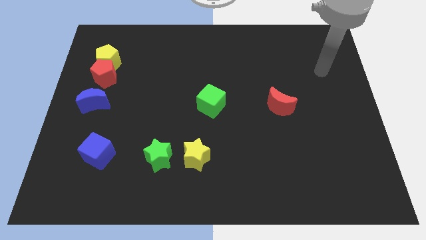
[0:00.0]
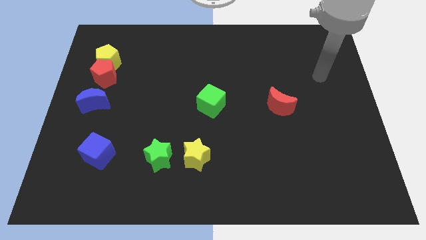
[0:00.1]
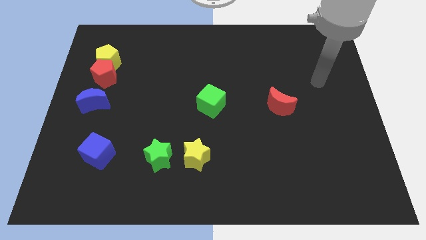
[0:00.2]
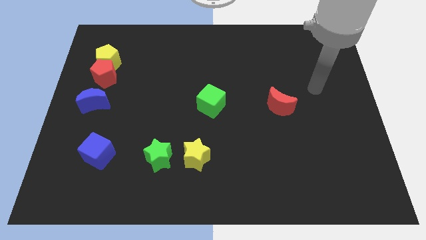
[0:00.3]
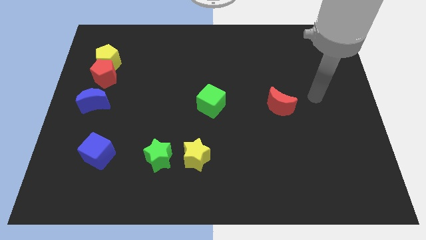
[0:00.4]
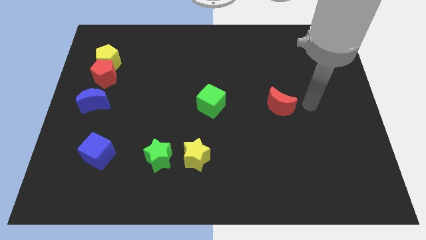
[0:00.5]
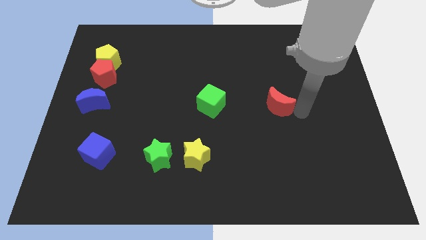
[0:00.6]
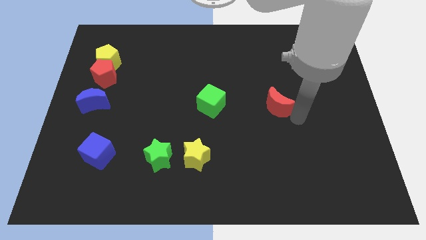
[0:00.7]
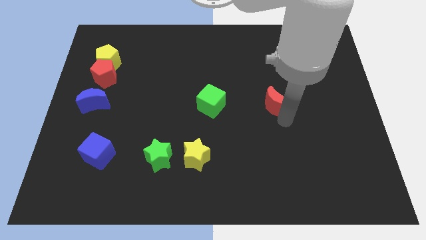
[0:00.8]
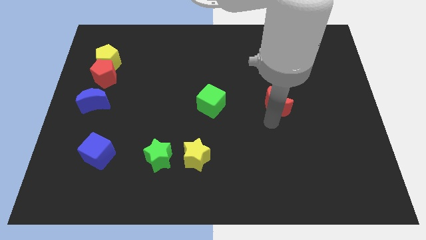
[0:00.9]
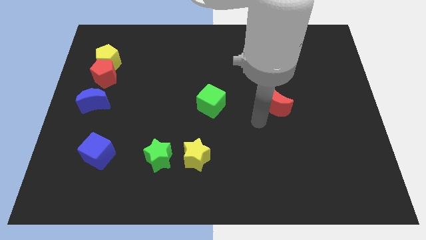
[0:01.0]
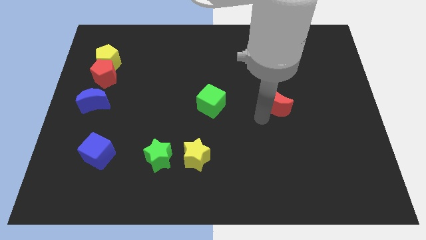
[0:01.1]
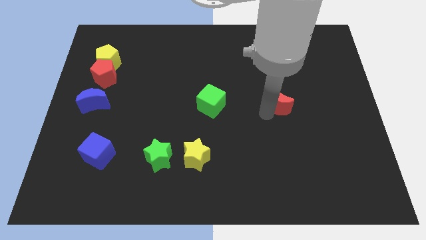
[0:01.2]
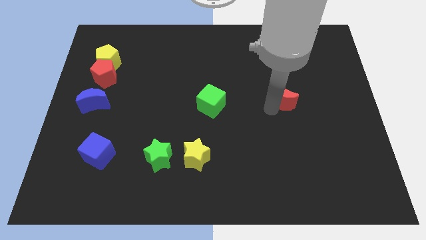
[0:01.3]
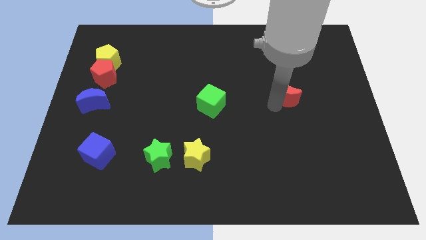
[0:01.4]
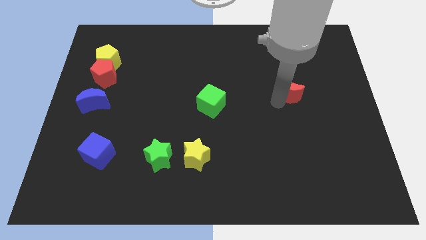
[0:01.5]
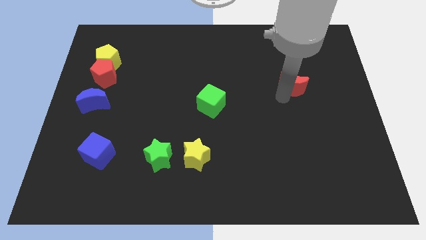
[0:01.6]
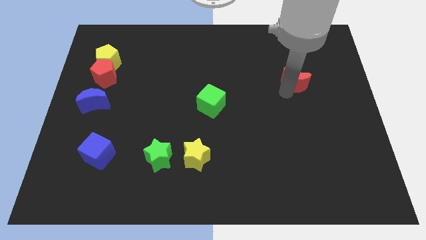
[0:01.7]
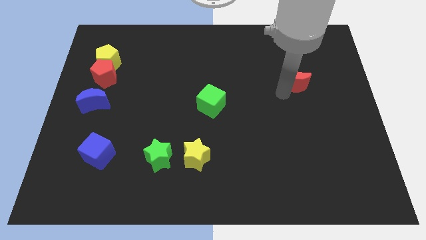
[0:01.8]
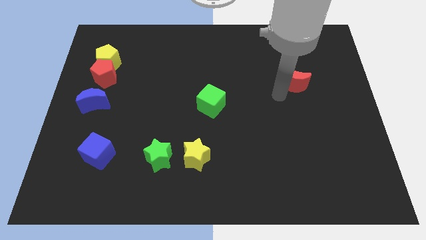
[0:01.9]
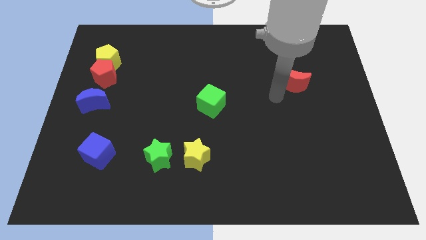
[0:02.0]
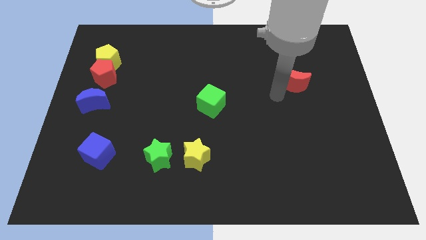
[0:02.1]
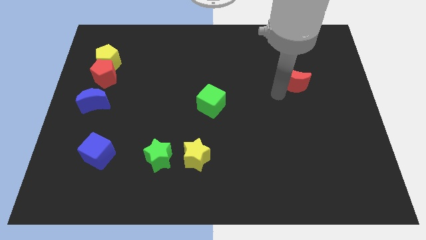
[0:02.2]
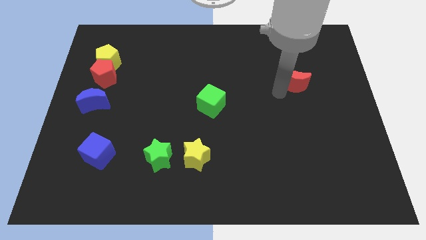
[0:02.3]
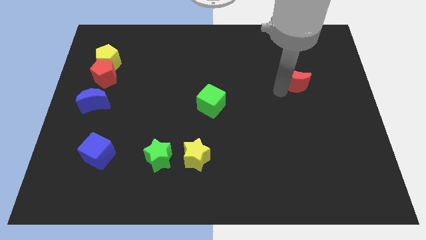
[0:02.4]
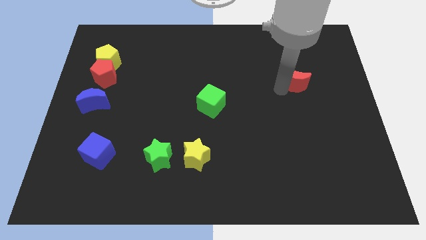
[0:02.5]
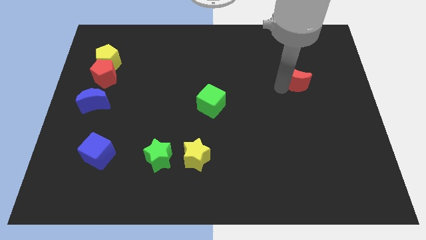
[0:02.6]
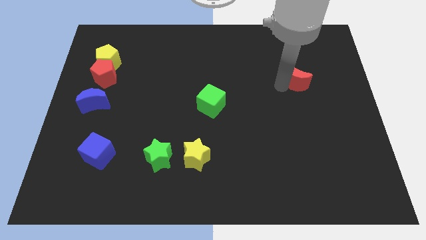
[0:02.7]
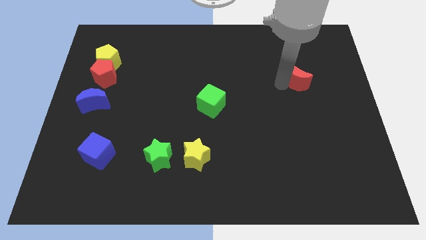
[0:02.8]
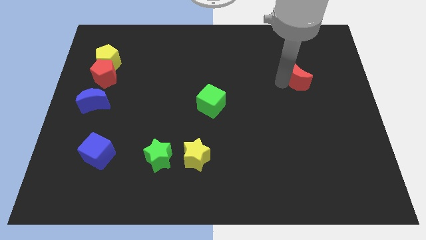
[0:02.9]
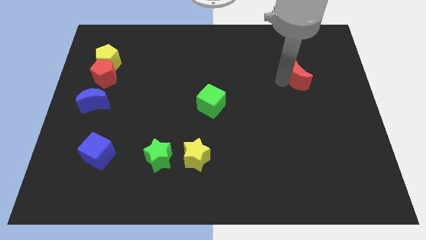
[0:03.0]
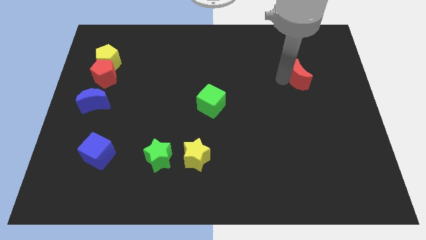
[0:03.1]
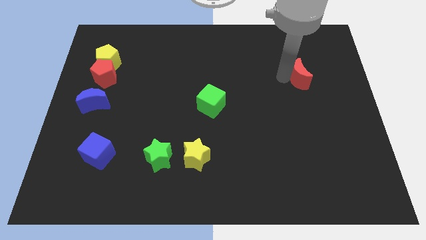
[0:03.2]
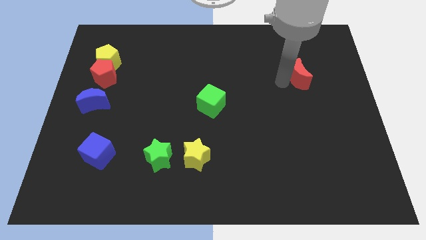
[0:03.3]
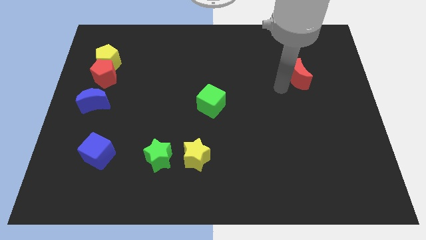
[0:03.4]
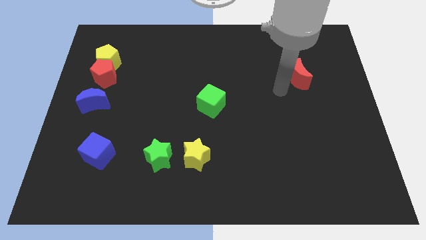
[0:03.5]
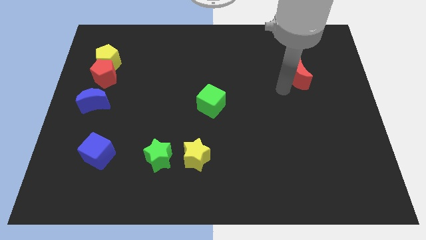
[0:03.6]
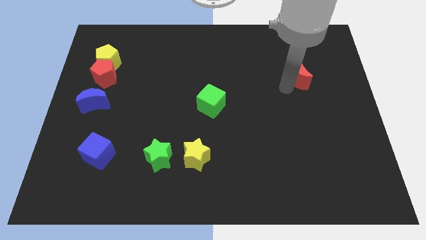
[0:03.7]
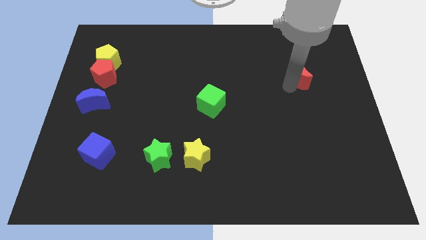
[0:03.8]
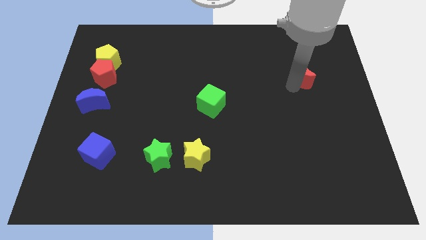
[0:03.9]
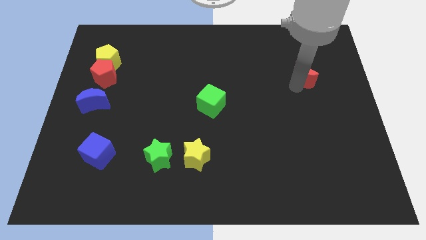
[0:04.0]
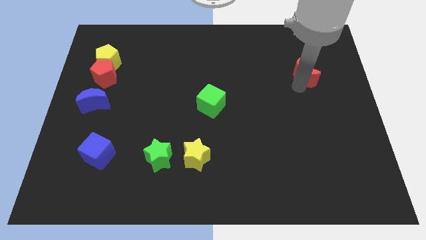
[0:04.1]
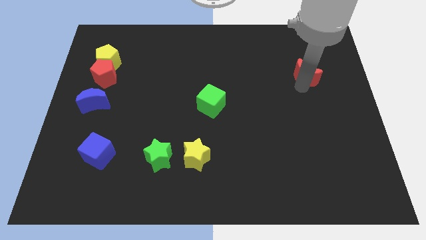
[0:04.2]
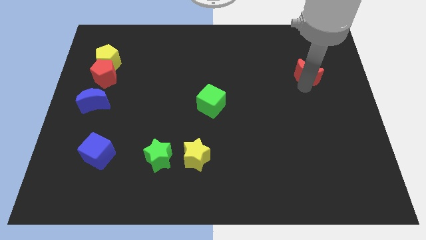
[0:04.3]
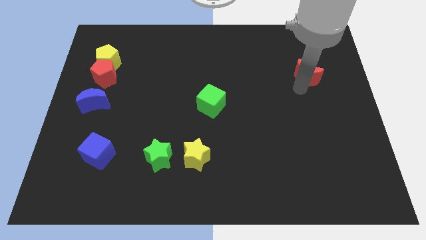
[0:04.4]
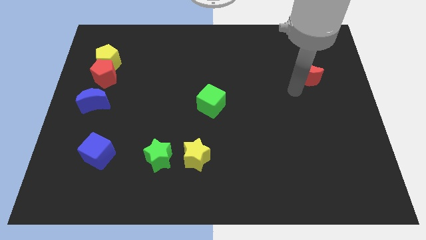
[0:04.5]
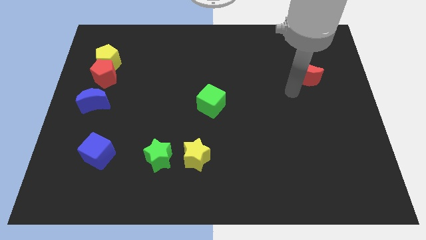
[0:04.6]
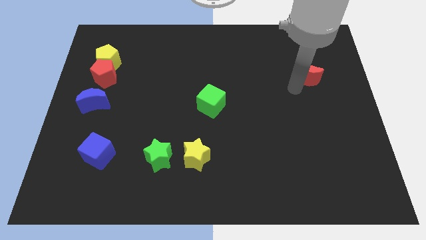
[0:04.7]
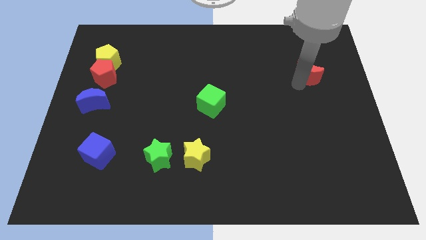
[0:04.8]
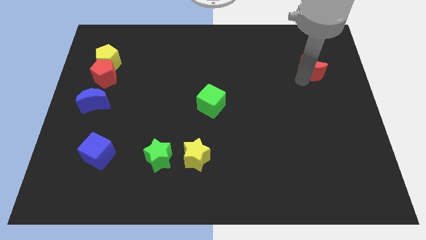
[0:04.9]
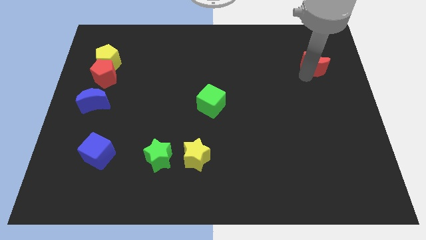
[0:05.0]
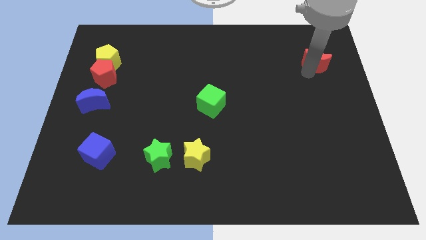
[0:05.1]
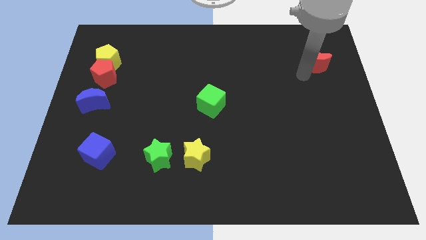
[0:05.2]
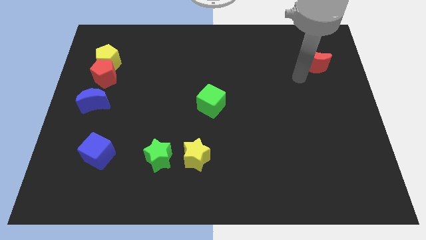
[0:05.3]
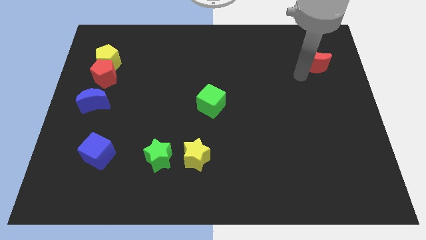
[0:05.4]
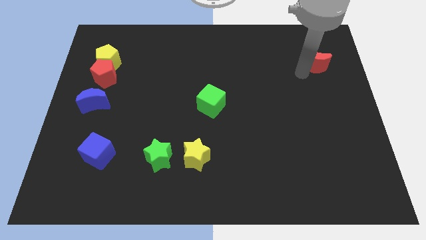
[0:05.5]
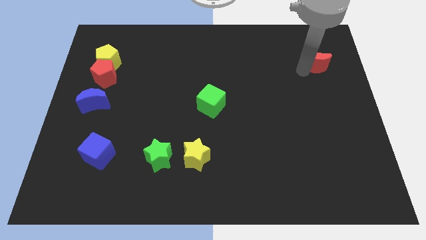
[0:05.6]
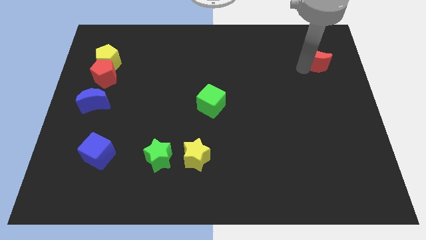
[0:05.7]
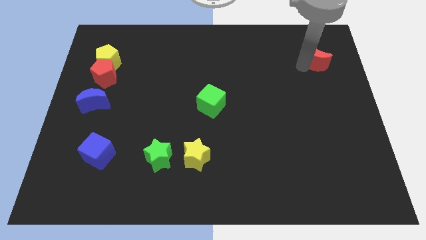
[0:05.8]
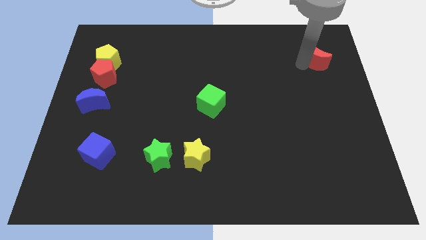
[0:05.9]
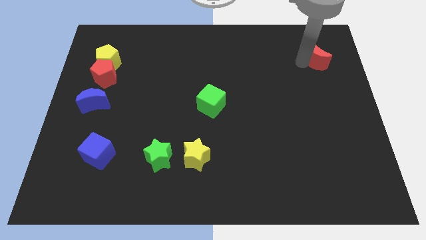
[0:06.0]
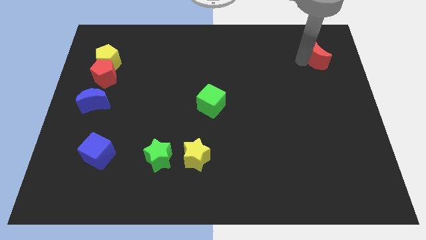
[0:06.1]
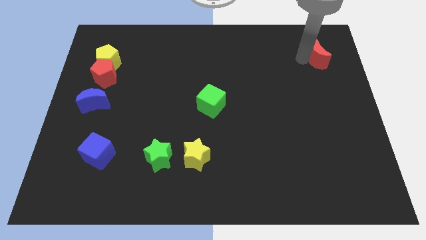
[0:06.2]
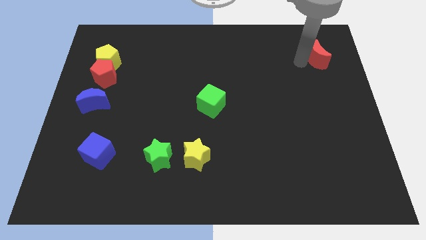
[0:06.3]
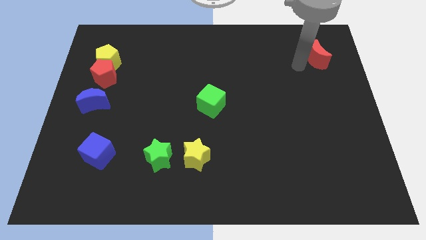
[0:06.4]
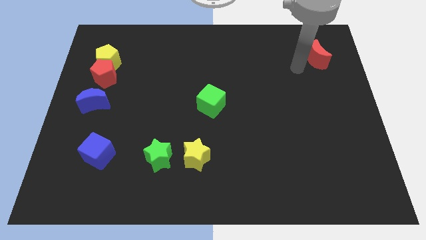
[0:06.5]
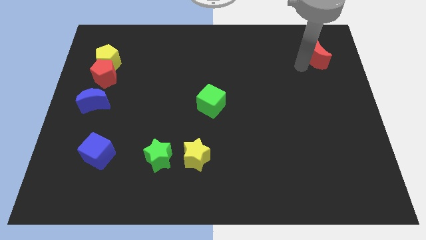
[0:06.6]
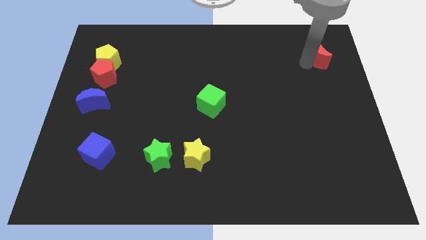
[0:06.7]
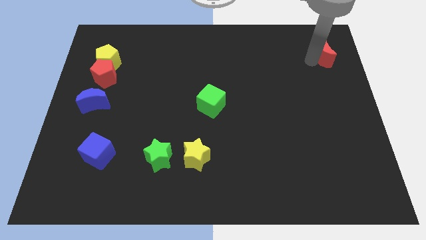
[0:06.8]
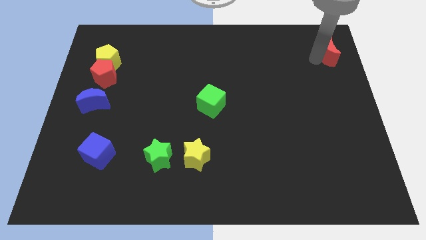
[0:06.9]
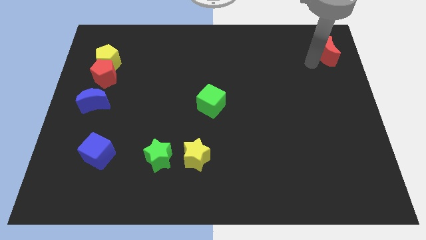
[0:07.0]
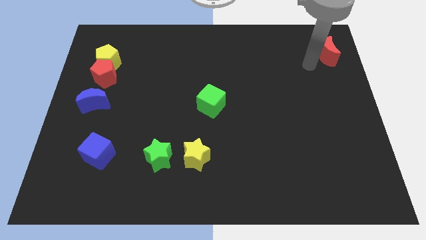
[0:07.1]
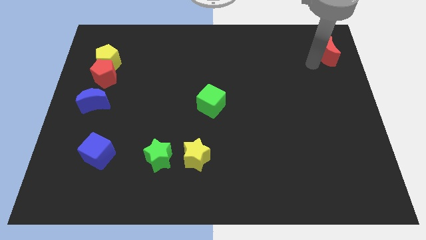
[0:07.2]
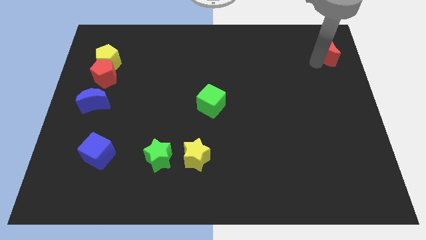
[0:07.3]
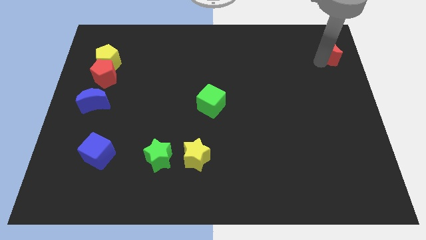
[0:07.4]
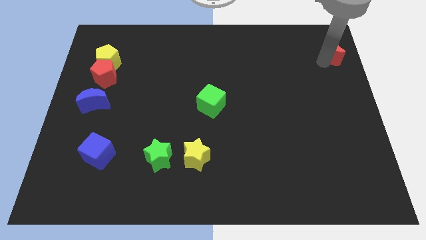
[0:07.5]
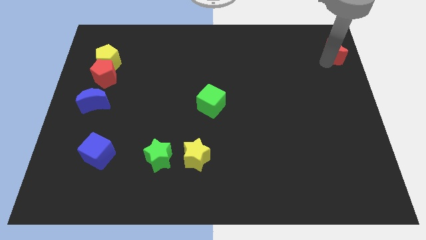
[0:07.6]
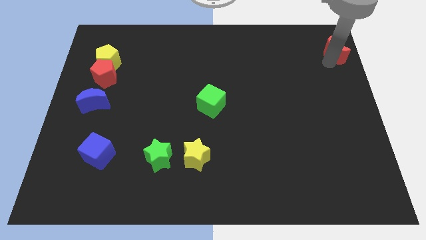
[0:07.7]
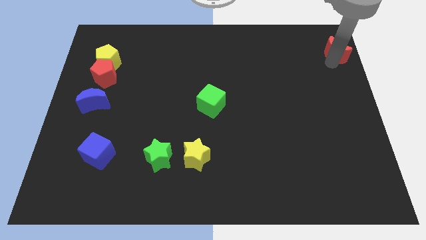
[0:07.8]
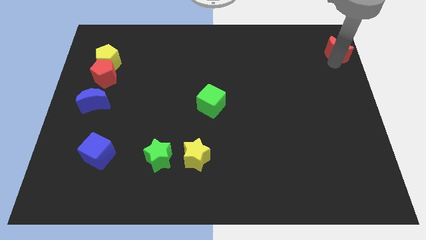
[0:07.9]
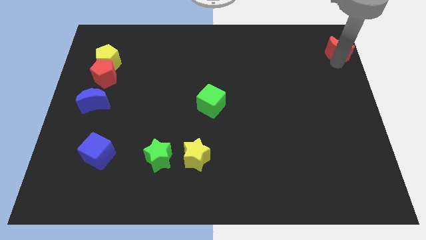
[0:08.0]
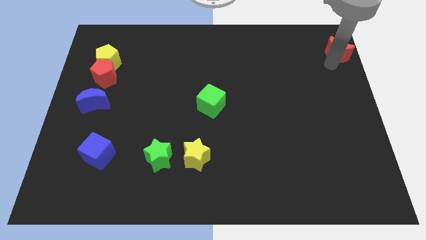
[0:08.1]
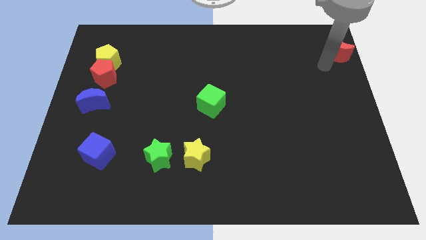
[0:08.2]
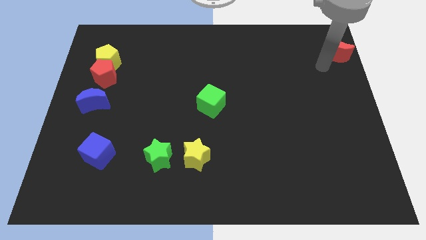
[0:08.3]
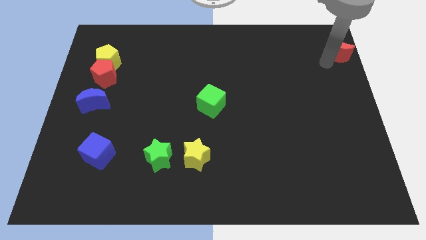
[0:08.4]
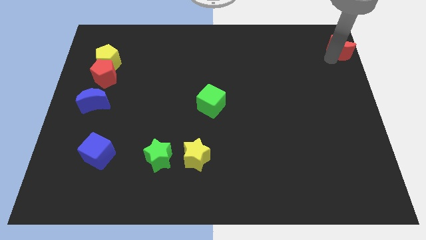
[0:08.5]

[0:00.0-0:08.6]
put the red moon to the top right of the board
